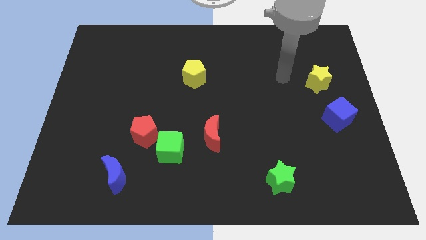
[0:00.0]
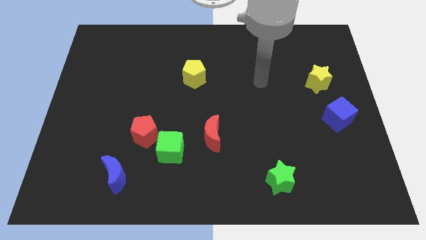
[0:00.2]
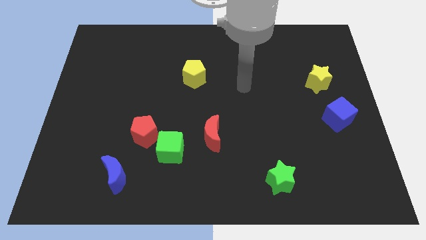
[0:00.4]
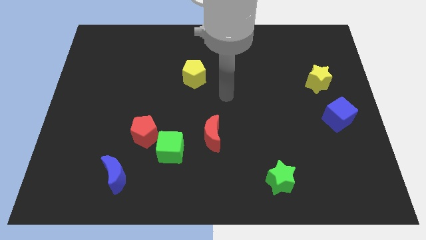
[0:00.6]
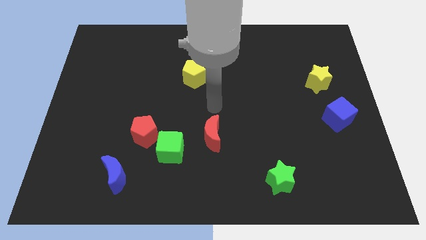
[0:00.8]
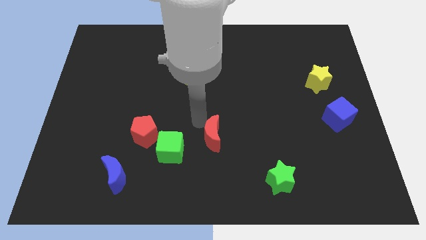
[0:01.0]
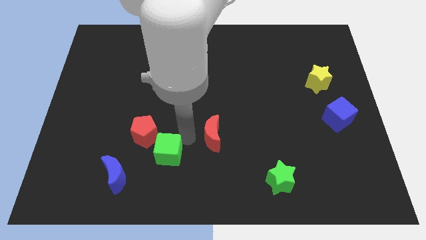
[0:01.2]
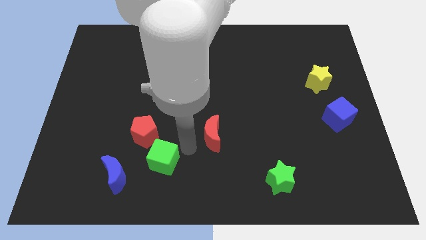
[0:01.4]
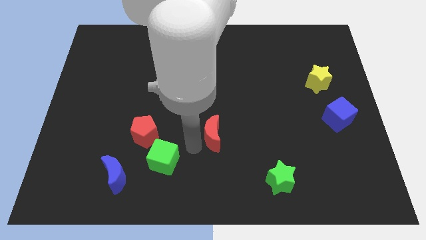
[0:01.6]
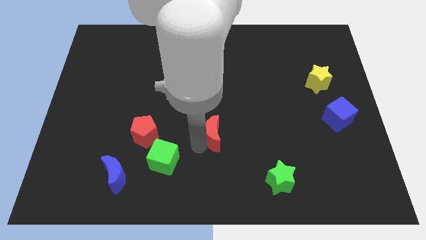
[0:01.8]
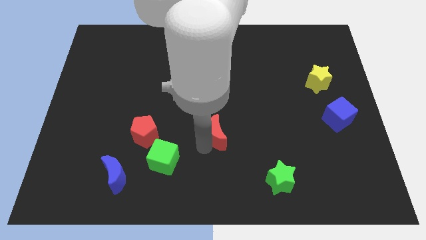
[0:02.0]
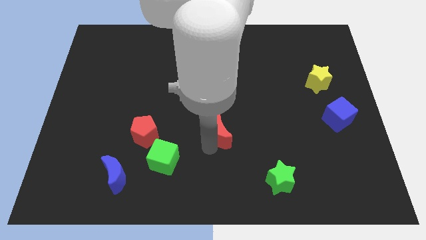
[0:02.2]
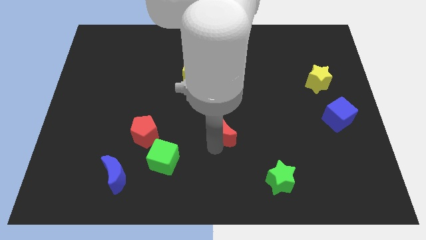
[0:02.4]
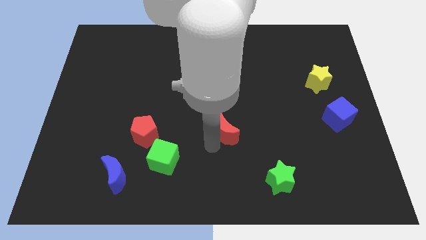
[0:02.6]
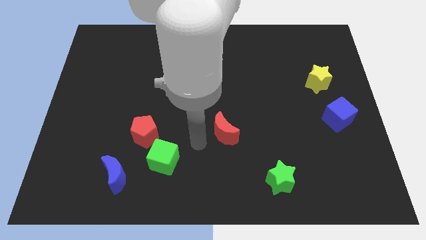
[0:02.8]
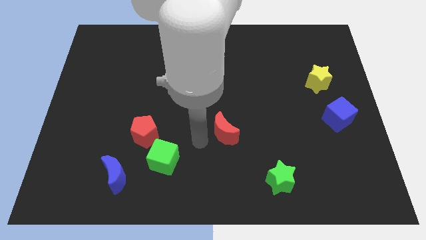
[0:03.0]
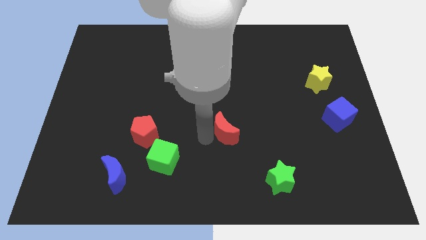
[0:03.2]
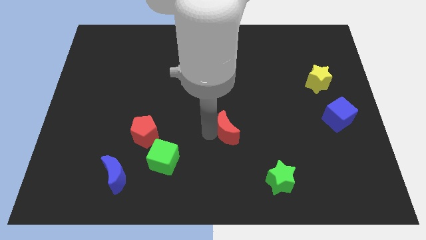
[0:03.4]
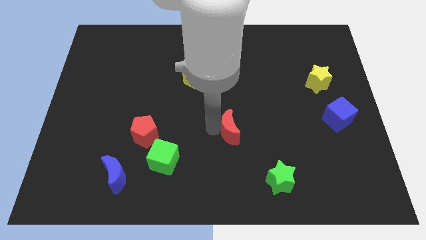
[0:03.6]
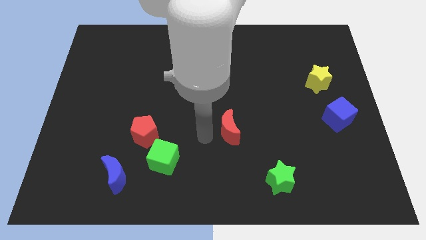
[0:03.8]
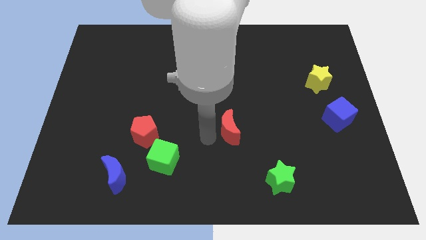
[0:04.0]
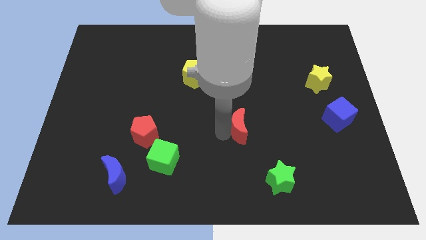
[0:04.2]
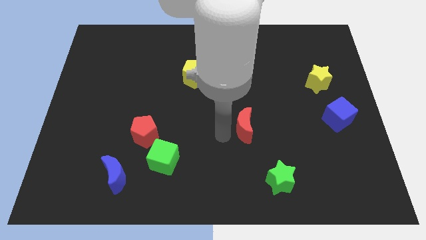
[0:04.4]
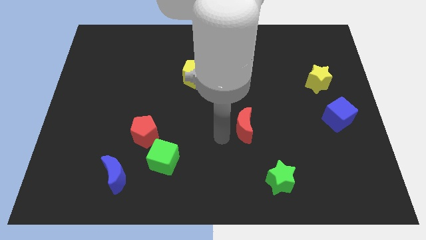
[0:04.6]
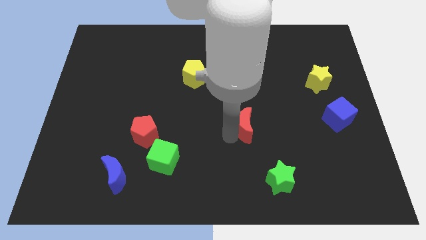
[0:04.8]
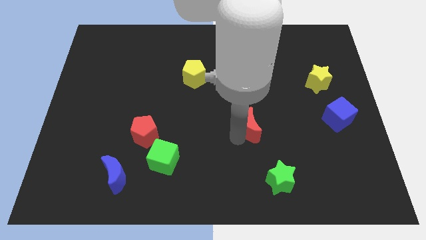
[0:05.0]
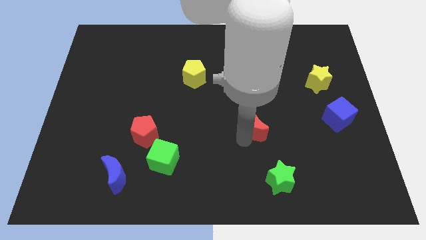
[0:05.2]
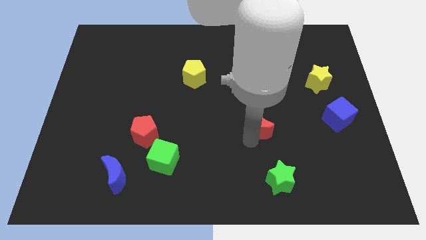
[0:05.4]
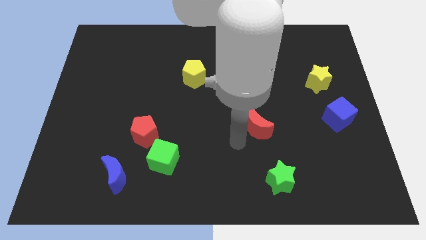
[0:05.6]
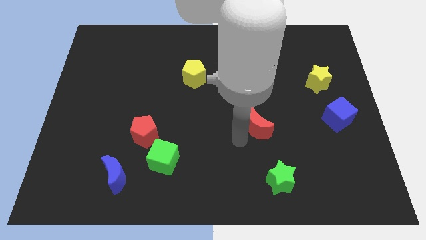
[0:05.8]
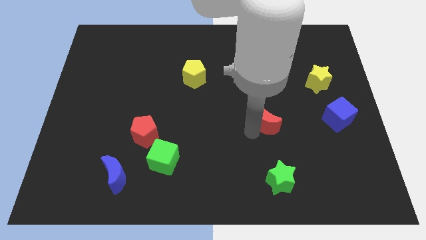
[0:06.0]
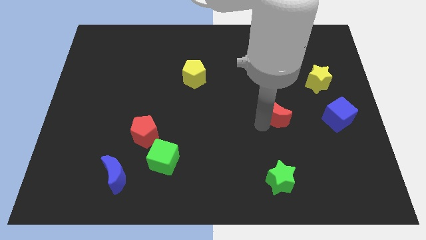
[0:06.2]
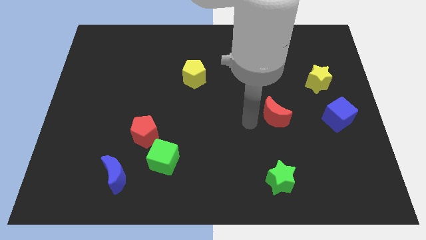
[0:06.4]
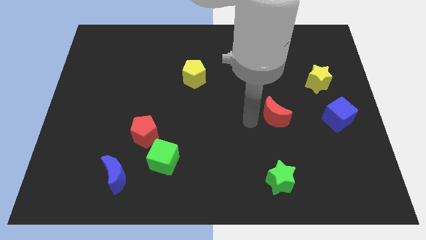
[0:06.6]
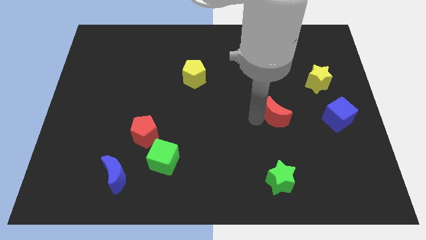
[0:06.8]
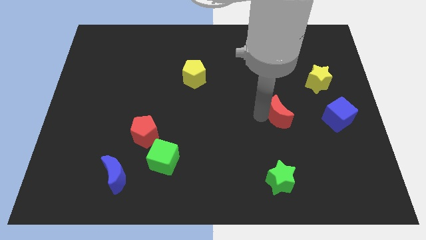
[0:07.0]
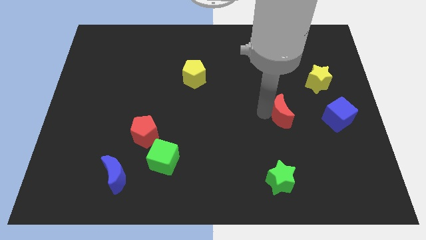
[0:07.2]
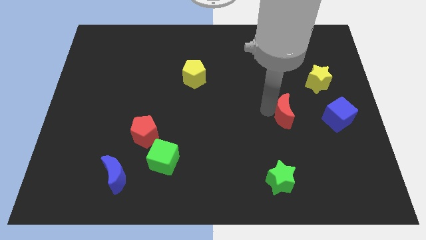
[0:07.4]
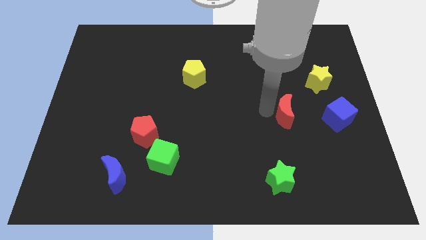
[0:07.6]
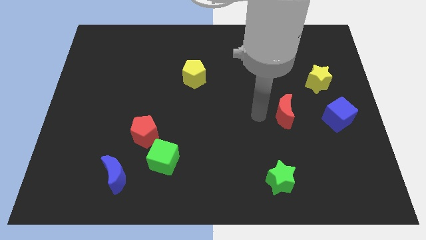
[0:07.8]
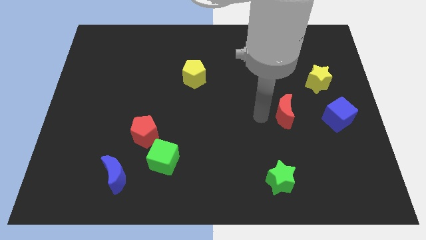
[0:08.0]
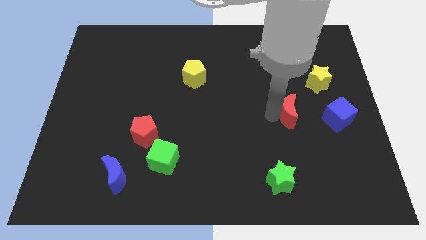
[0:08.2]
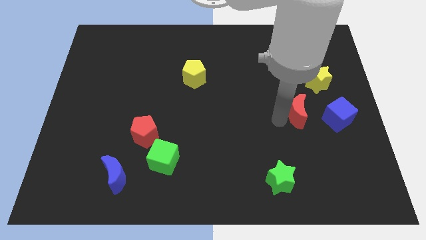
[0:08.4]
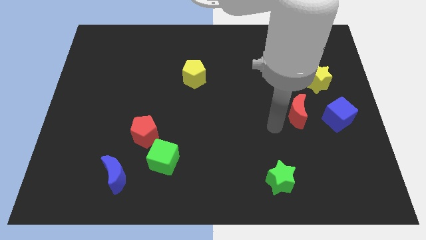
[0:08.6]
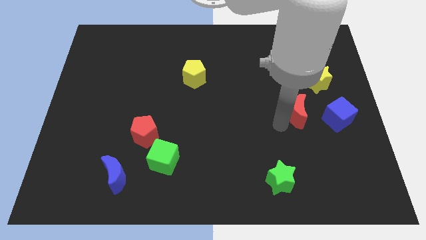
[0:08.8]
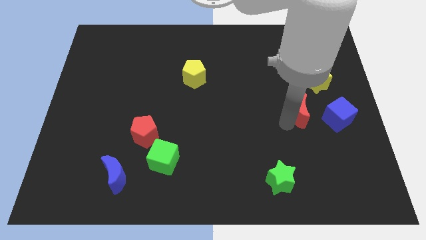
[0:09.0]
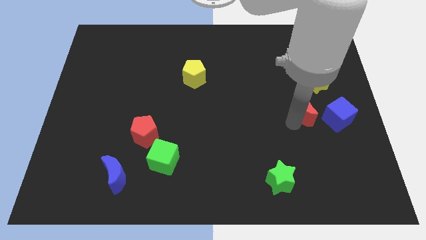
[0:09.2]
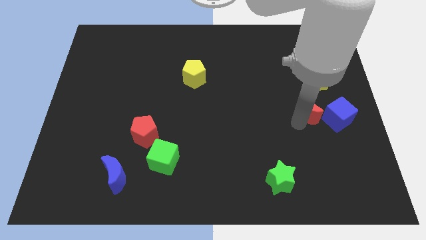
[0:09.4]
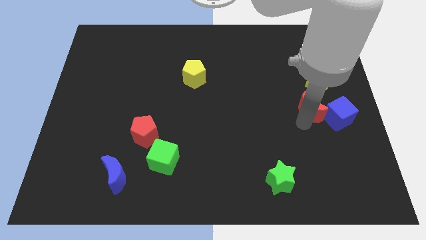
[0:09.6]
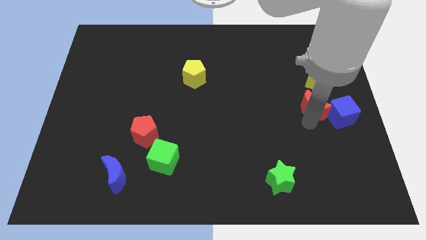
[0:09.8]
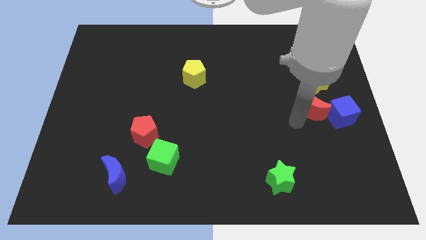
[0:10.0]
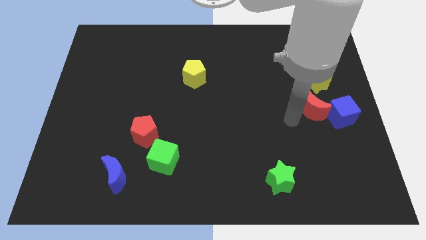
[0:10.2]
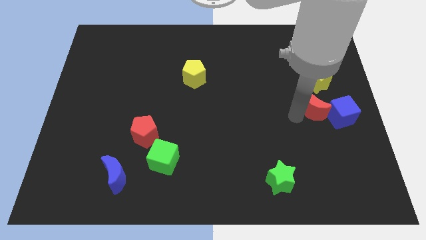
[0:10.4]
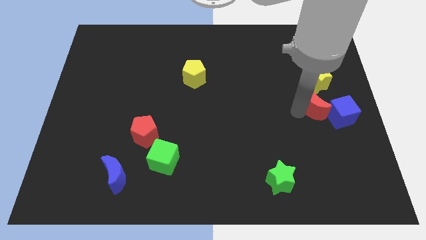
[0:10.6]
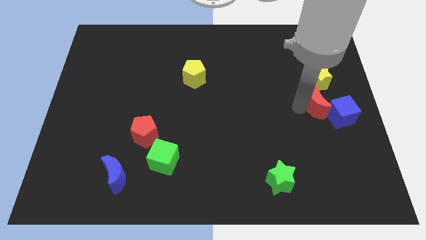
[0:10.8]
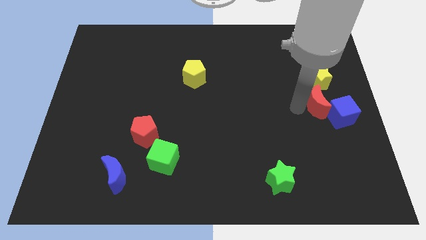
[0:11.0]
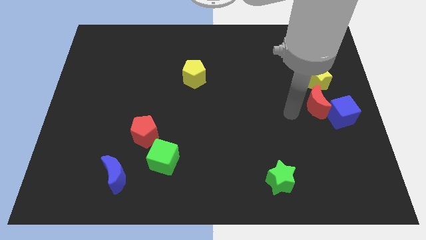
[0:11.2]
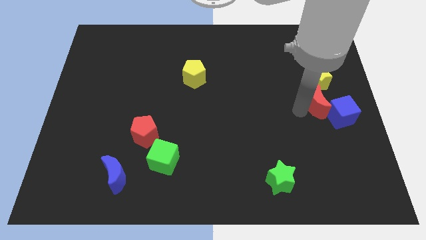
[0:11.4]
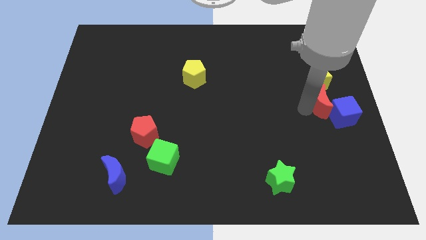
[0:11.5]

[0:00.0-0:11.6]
move the red moon to the center right
